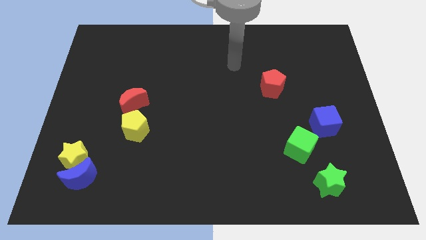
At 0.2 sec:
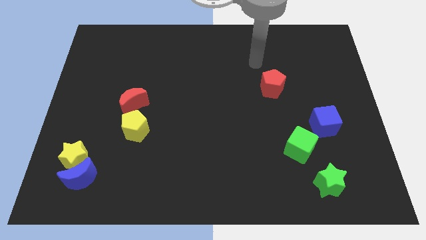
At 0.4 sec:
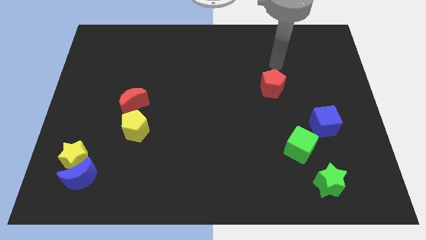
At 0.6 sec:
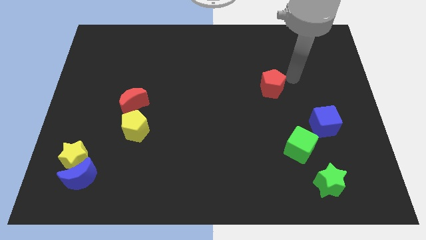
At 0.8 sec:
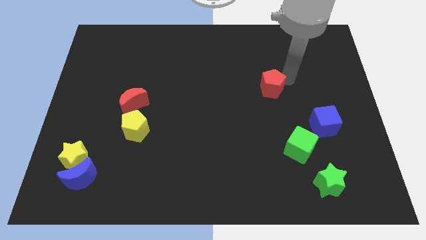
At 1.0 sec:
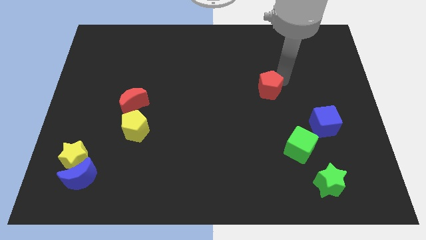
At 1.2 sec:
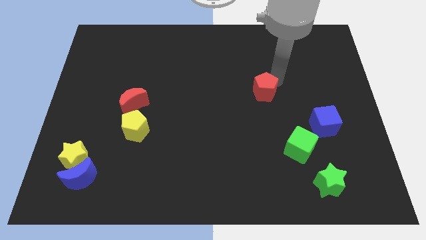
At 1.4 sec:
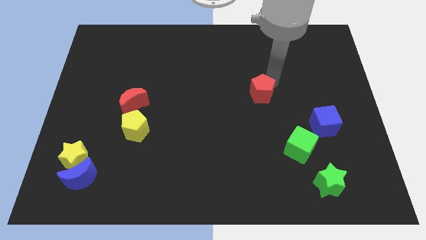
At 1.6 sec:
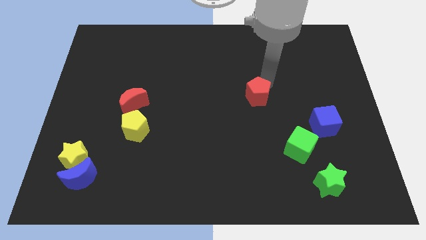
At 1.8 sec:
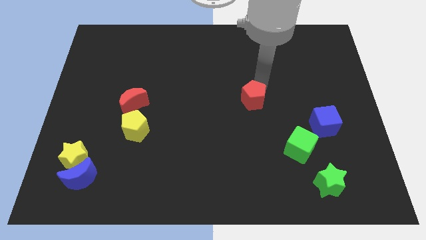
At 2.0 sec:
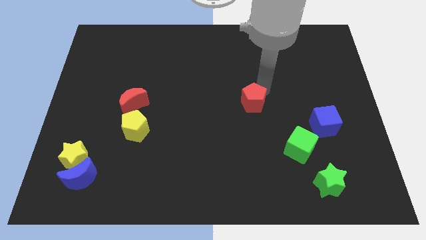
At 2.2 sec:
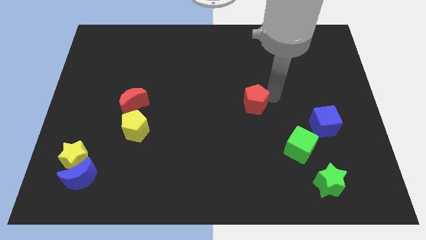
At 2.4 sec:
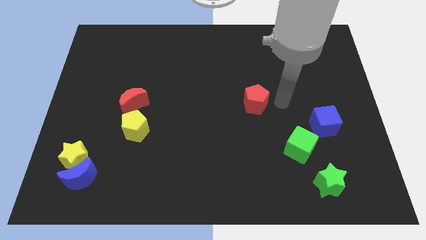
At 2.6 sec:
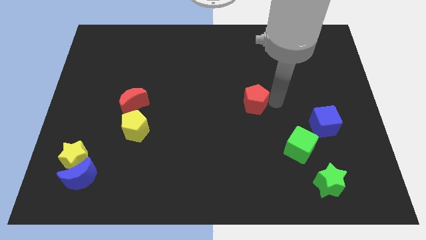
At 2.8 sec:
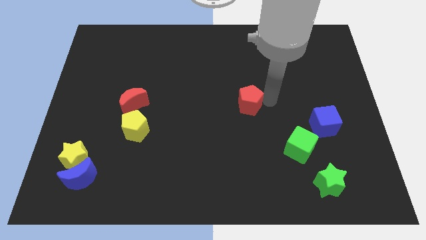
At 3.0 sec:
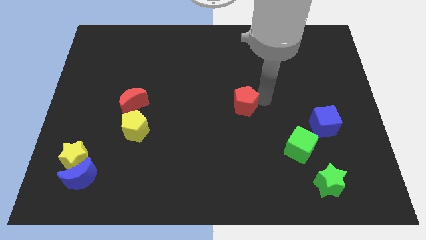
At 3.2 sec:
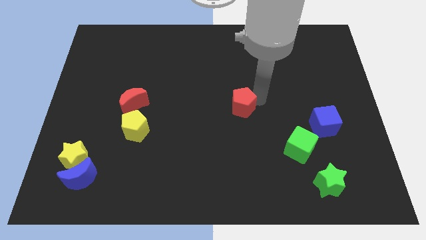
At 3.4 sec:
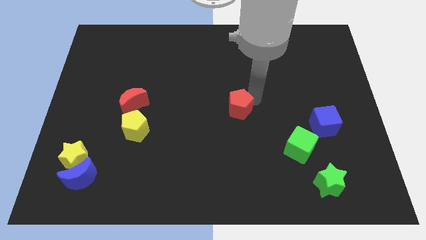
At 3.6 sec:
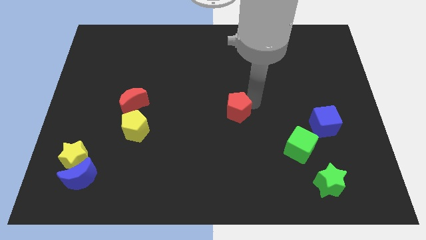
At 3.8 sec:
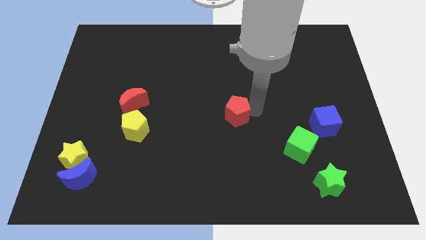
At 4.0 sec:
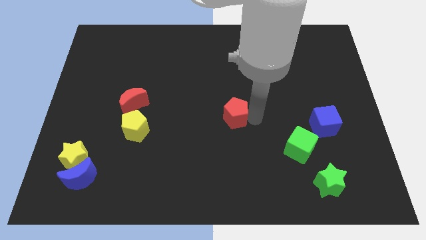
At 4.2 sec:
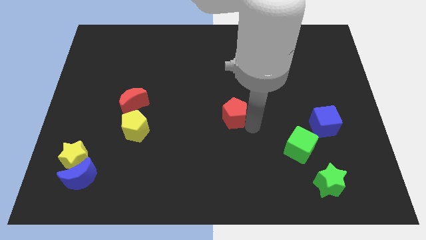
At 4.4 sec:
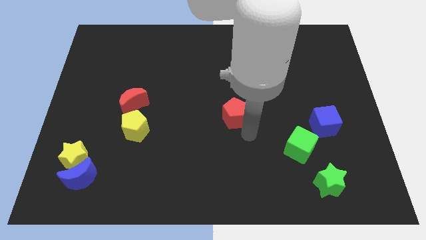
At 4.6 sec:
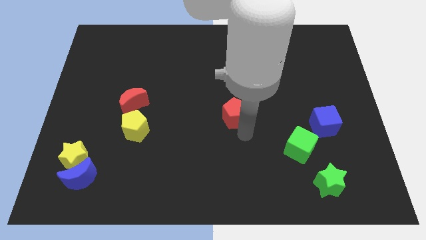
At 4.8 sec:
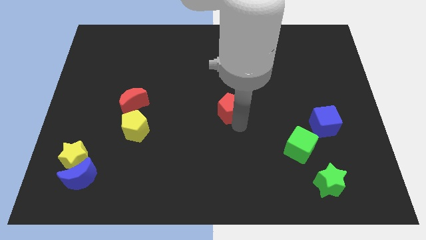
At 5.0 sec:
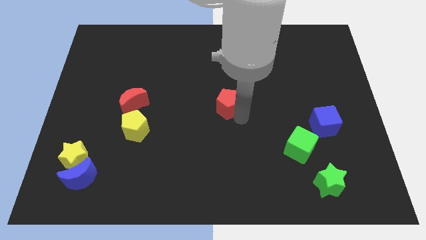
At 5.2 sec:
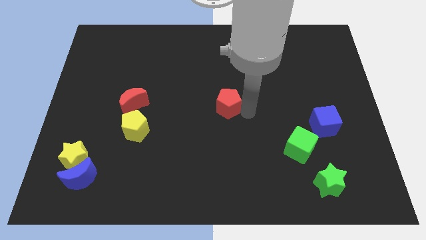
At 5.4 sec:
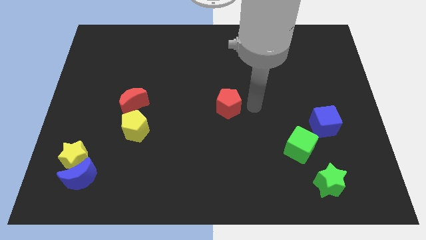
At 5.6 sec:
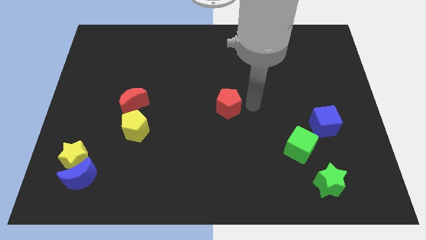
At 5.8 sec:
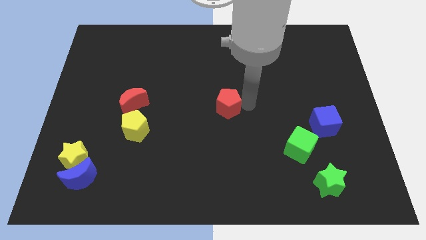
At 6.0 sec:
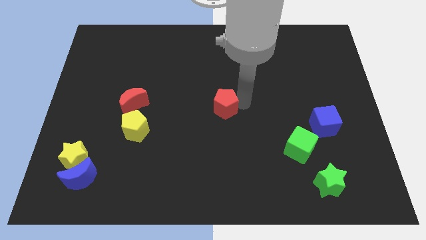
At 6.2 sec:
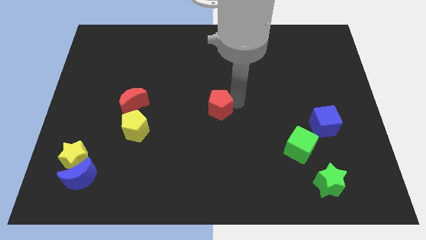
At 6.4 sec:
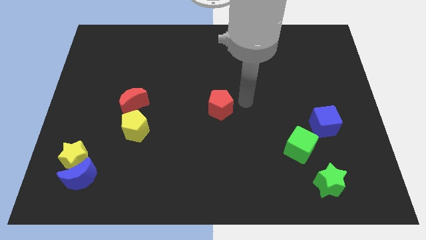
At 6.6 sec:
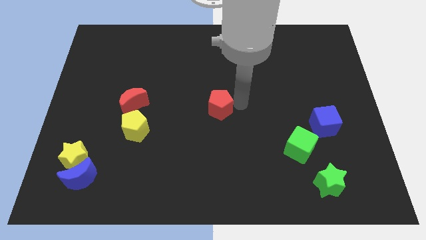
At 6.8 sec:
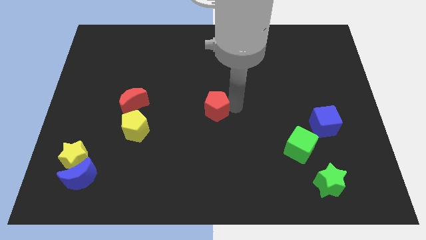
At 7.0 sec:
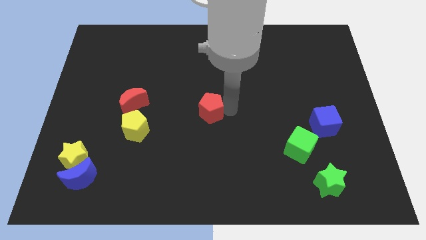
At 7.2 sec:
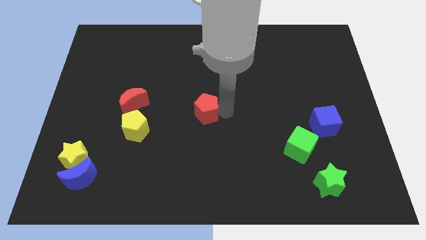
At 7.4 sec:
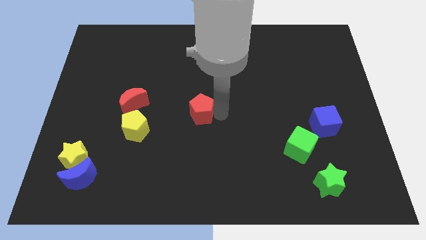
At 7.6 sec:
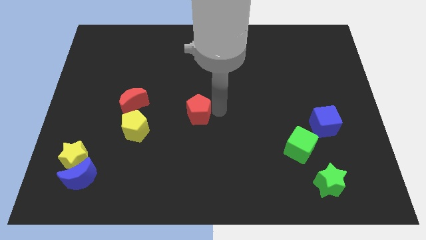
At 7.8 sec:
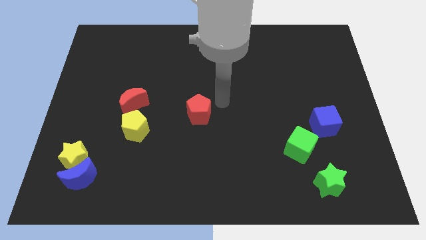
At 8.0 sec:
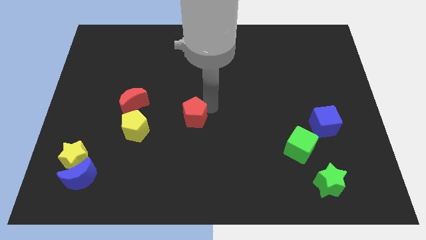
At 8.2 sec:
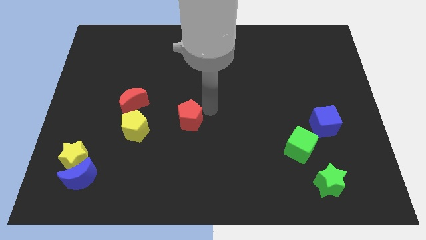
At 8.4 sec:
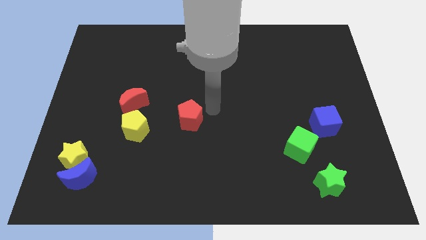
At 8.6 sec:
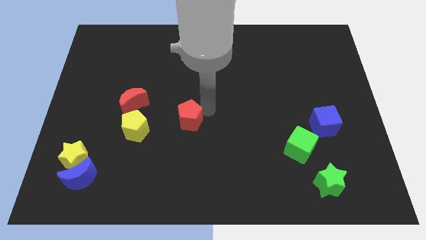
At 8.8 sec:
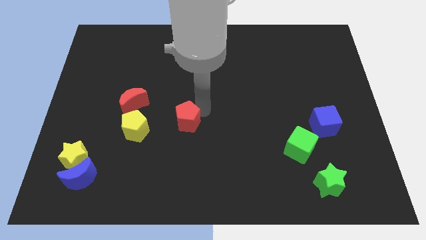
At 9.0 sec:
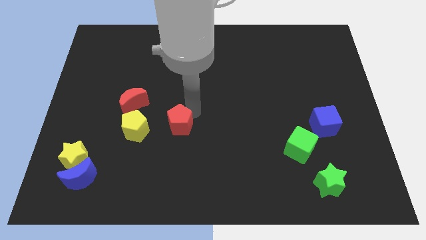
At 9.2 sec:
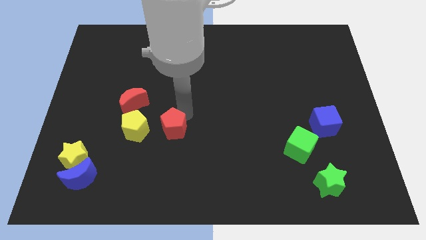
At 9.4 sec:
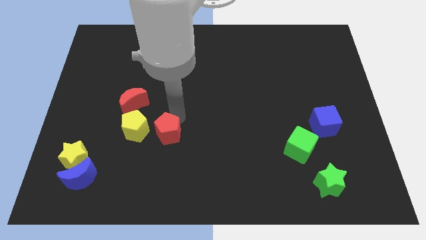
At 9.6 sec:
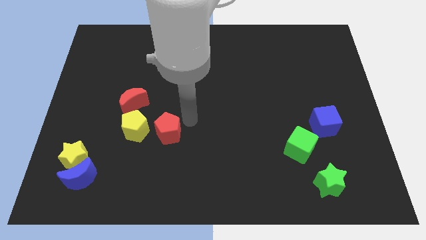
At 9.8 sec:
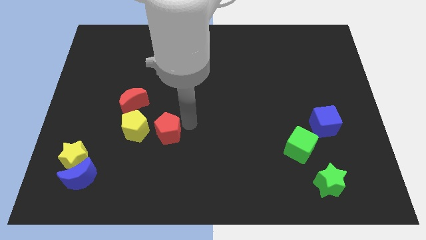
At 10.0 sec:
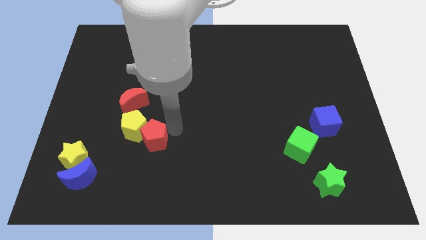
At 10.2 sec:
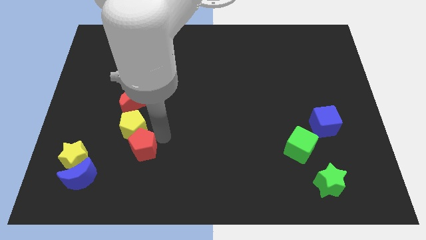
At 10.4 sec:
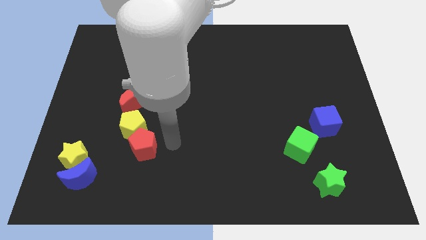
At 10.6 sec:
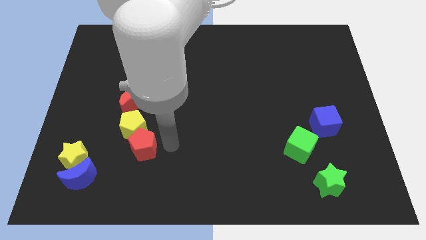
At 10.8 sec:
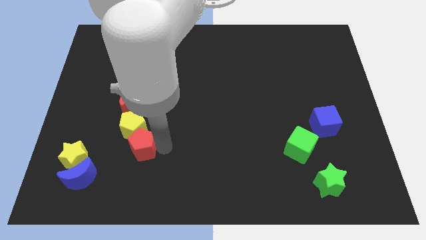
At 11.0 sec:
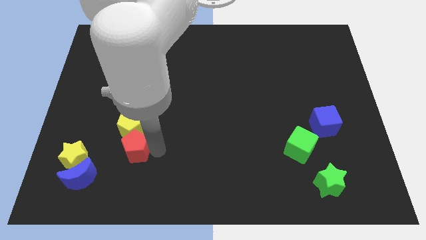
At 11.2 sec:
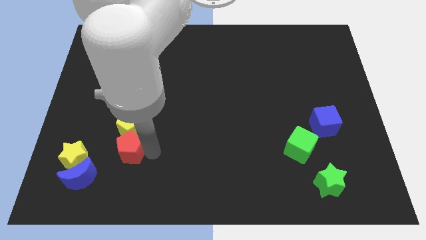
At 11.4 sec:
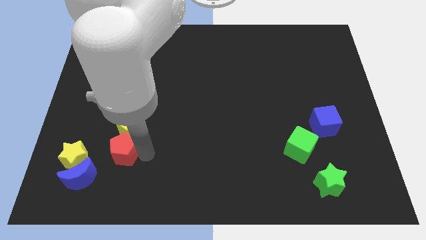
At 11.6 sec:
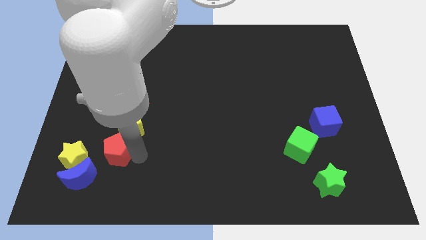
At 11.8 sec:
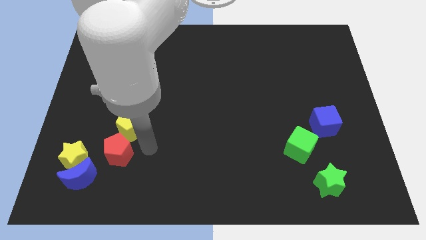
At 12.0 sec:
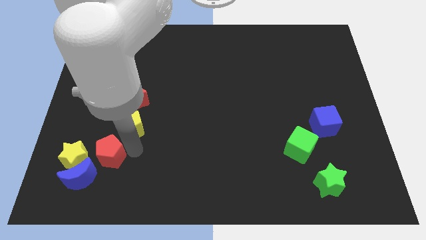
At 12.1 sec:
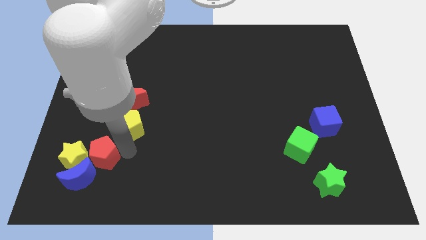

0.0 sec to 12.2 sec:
move the red pentagon to the yellow star

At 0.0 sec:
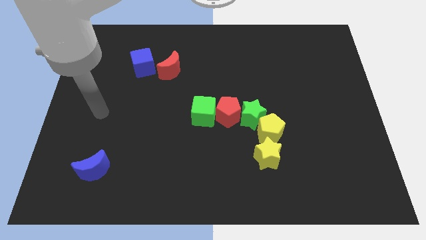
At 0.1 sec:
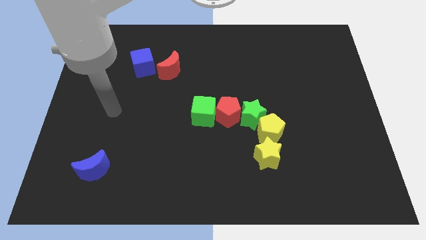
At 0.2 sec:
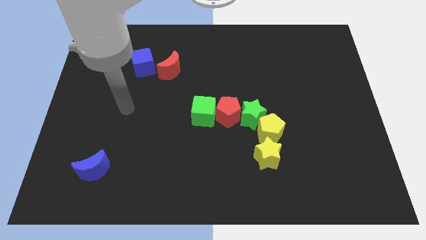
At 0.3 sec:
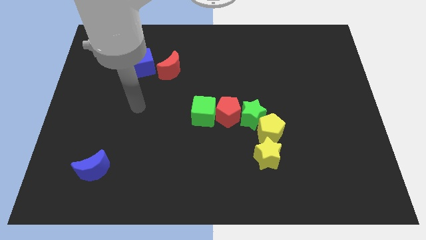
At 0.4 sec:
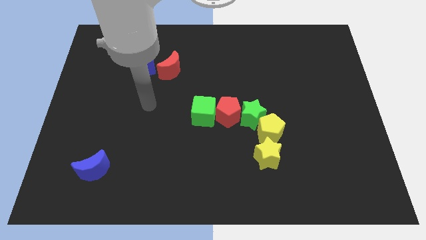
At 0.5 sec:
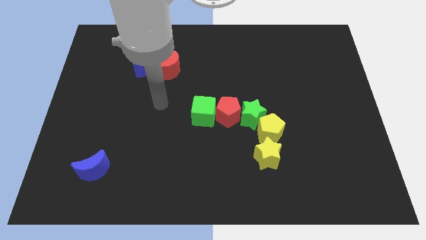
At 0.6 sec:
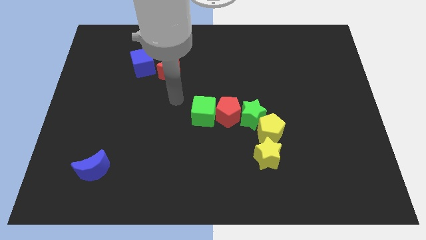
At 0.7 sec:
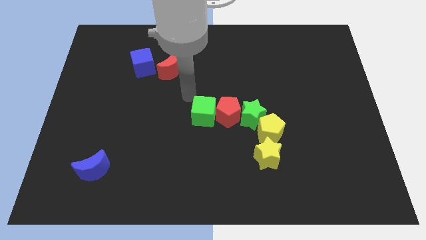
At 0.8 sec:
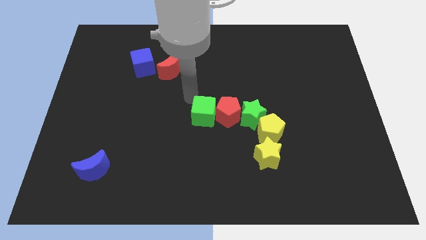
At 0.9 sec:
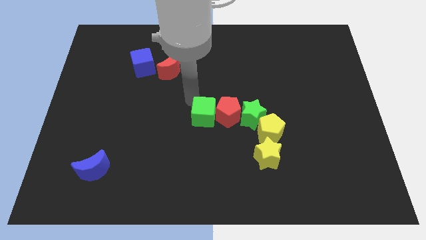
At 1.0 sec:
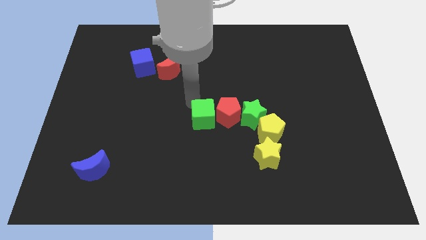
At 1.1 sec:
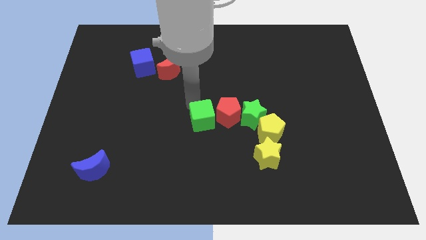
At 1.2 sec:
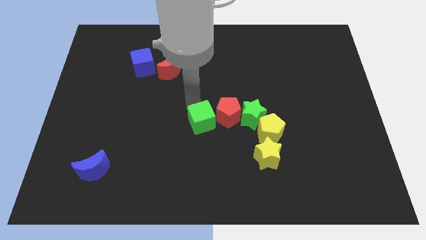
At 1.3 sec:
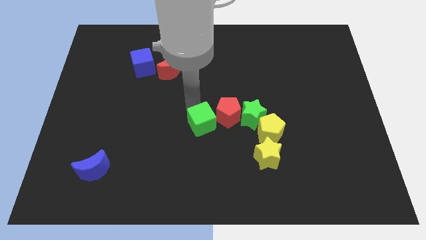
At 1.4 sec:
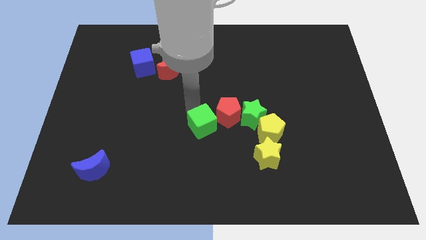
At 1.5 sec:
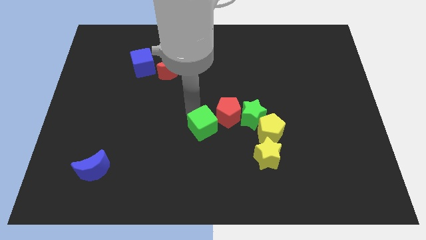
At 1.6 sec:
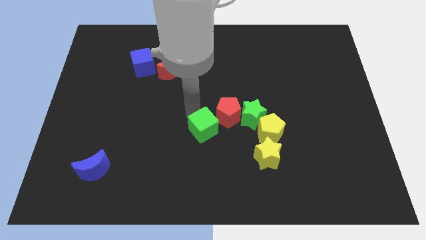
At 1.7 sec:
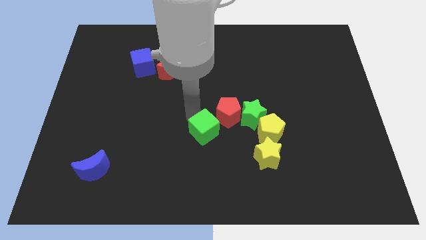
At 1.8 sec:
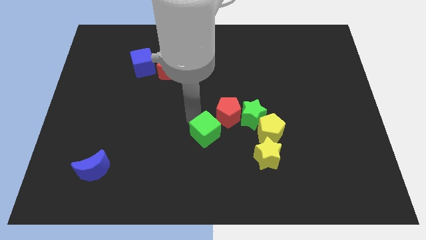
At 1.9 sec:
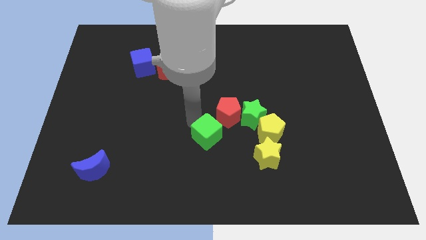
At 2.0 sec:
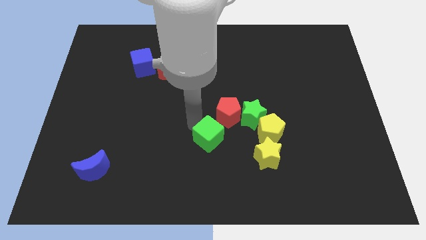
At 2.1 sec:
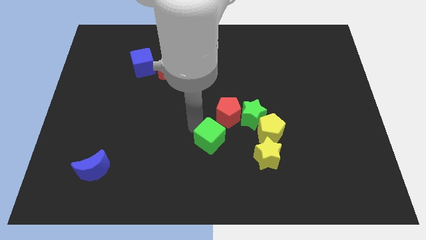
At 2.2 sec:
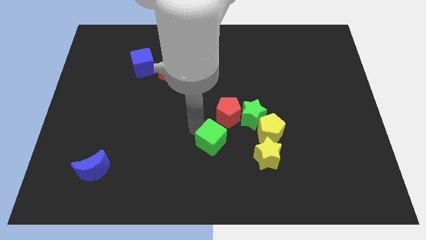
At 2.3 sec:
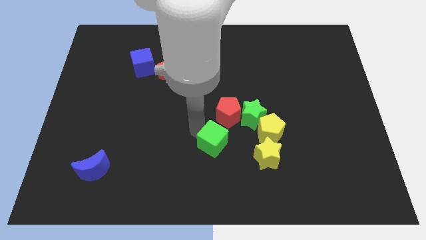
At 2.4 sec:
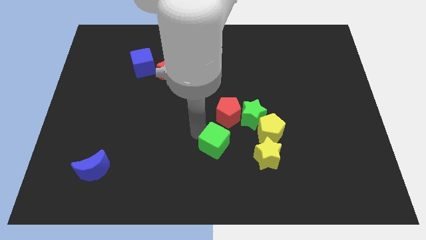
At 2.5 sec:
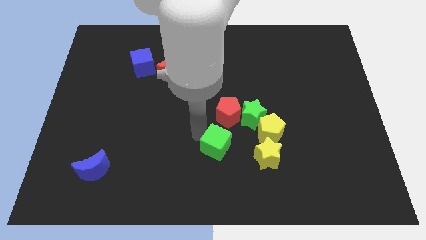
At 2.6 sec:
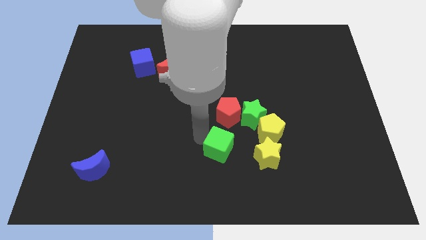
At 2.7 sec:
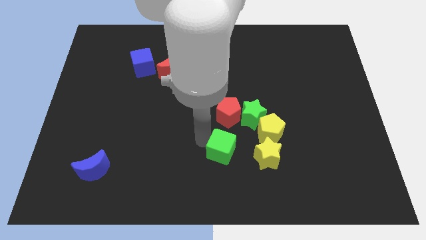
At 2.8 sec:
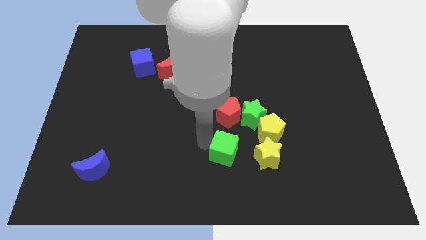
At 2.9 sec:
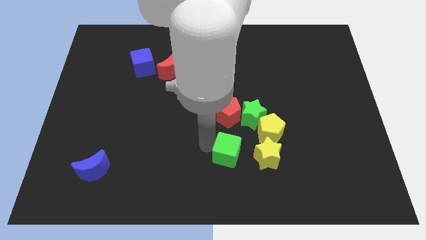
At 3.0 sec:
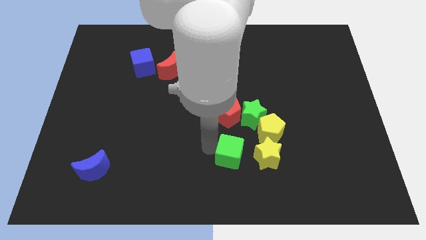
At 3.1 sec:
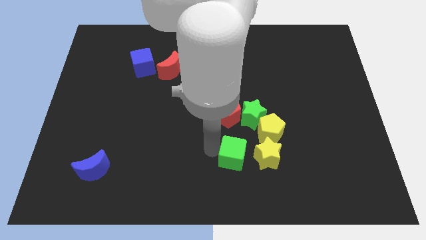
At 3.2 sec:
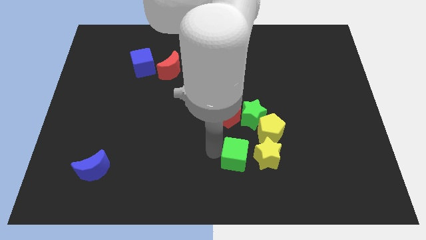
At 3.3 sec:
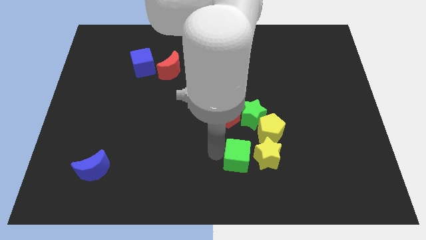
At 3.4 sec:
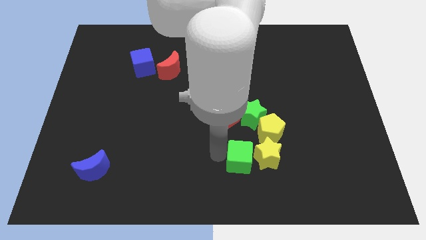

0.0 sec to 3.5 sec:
slide the green cube close to the yellow star
